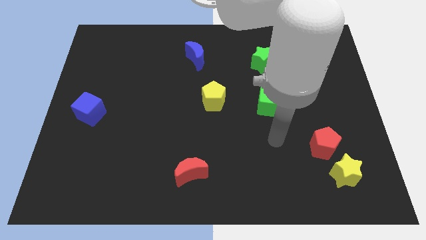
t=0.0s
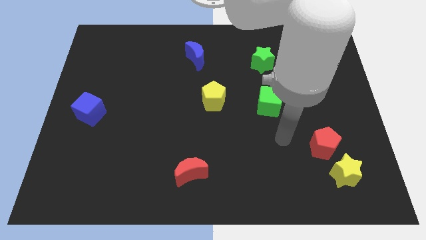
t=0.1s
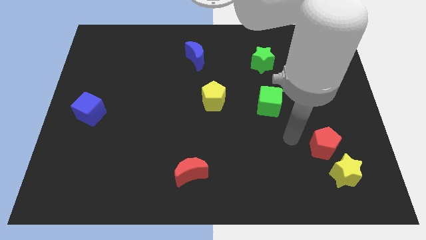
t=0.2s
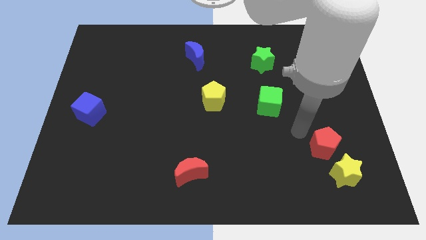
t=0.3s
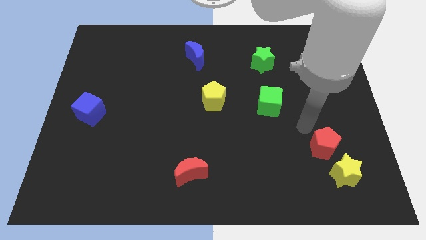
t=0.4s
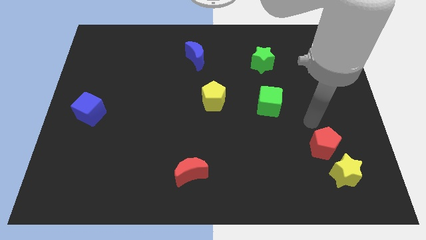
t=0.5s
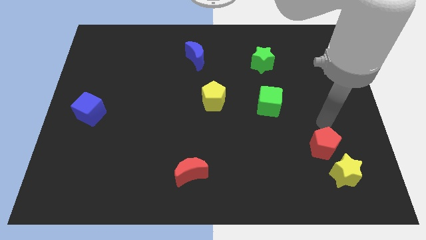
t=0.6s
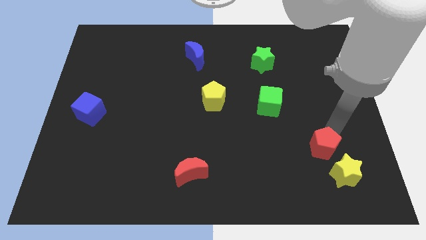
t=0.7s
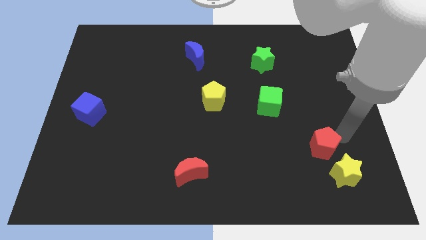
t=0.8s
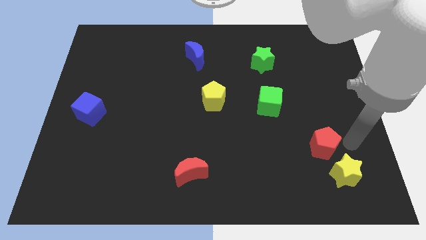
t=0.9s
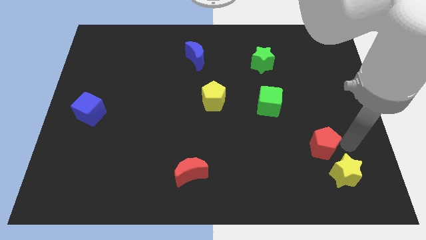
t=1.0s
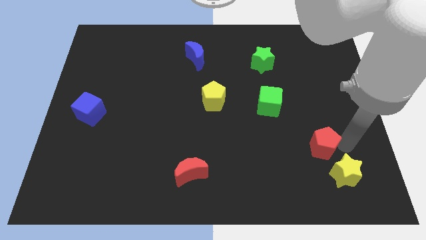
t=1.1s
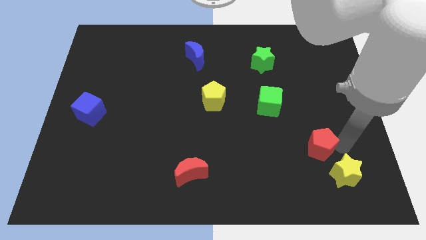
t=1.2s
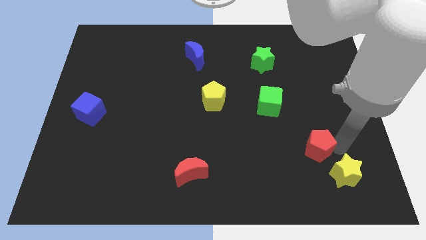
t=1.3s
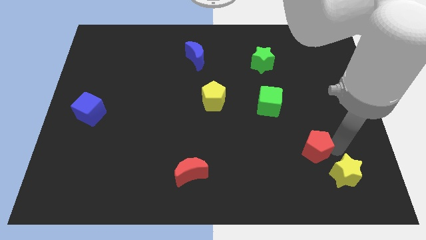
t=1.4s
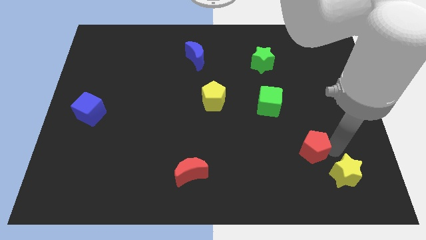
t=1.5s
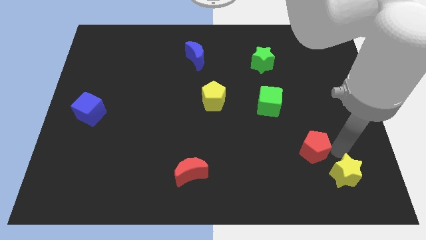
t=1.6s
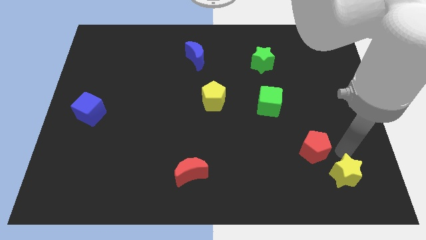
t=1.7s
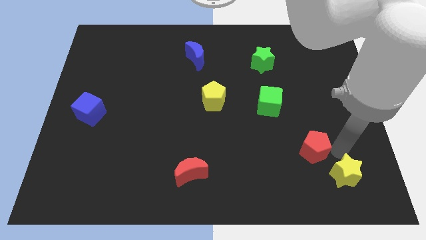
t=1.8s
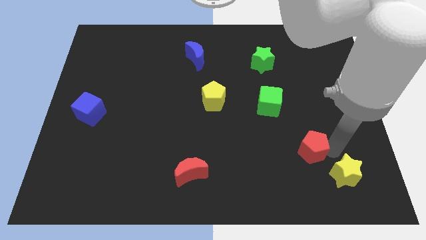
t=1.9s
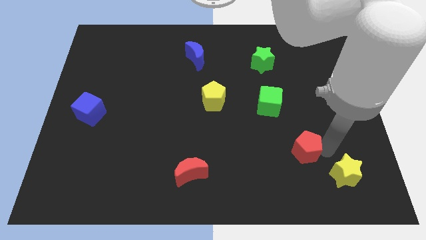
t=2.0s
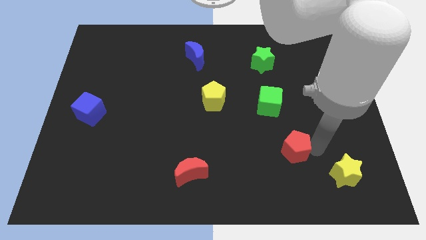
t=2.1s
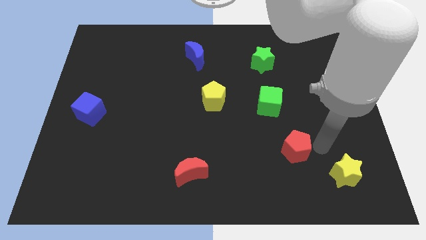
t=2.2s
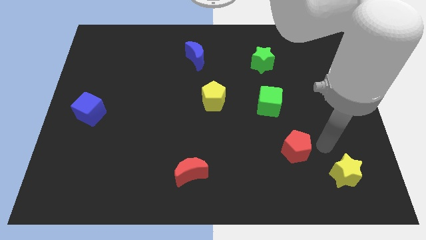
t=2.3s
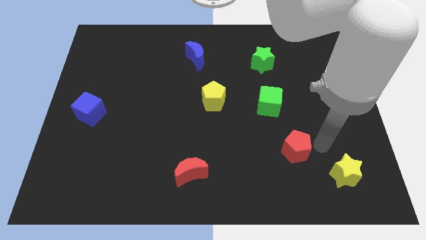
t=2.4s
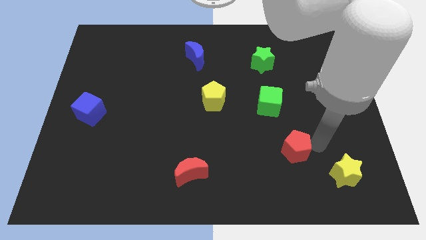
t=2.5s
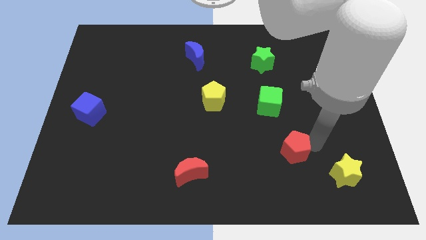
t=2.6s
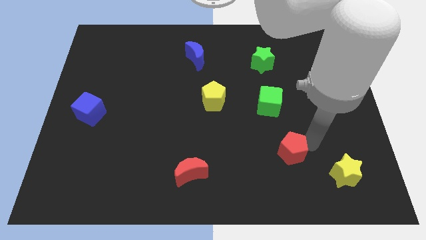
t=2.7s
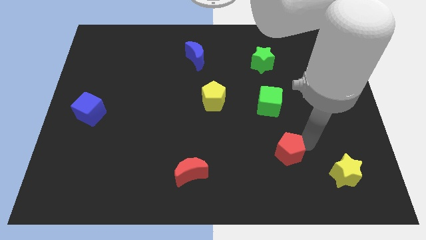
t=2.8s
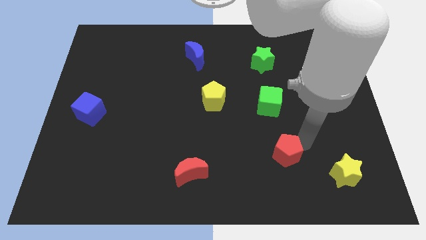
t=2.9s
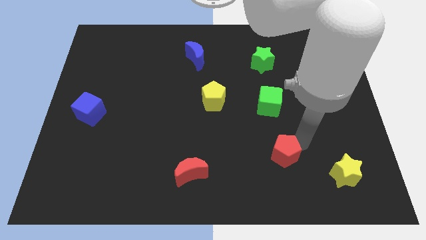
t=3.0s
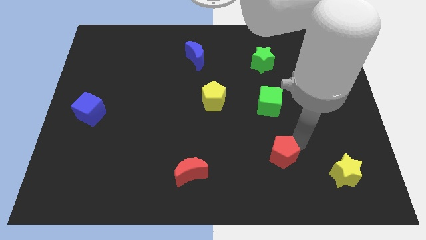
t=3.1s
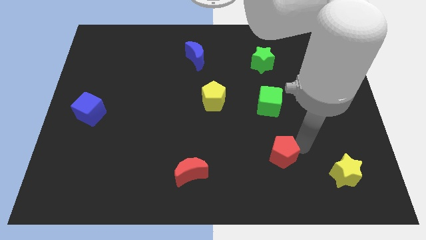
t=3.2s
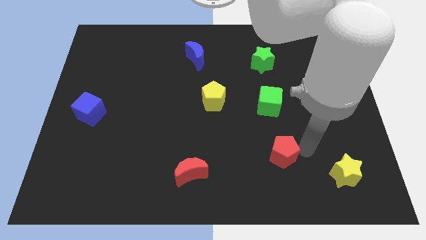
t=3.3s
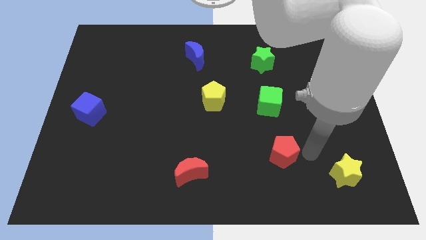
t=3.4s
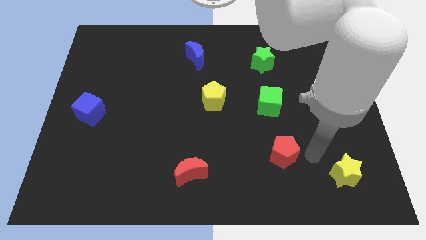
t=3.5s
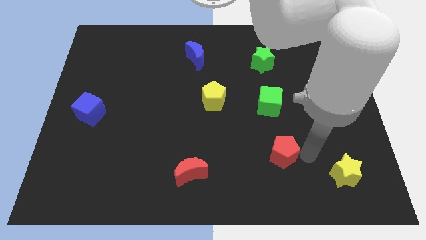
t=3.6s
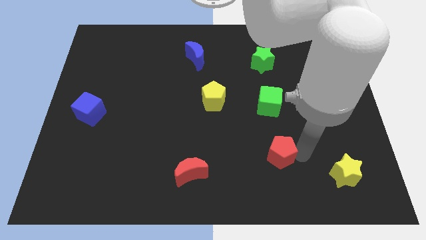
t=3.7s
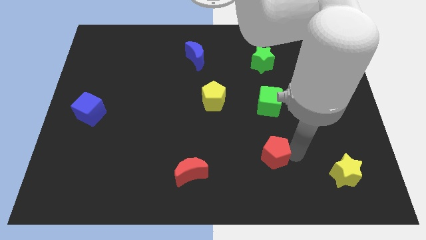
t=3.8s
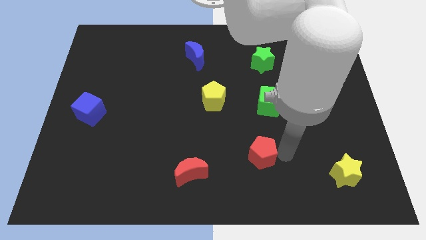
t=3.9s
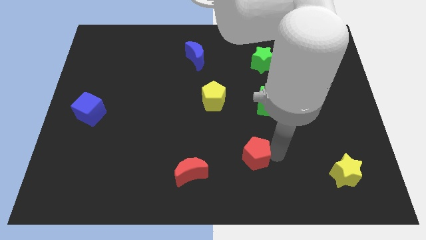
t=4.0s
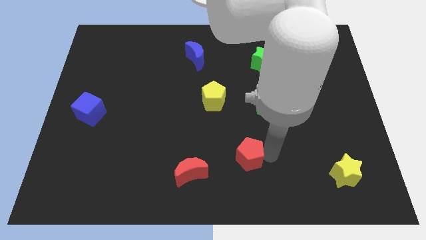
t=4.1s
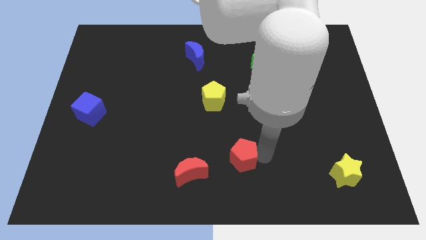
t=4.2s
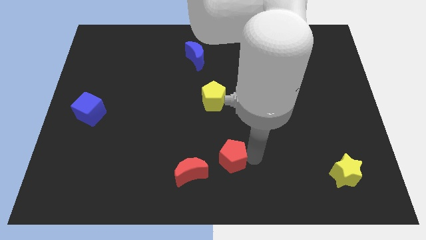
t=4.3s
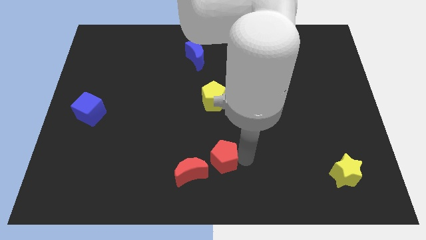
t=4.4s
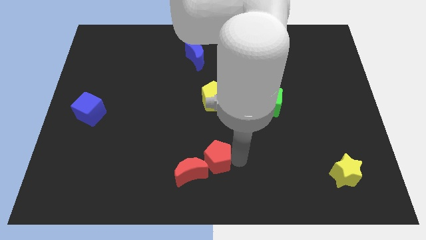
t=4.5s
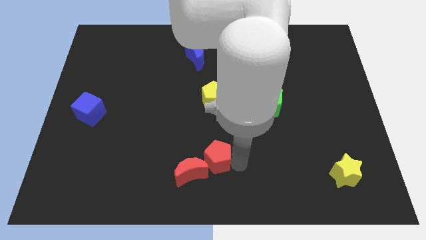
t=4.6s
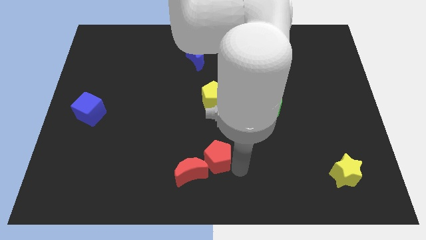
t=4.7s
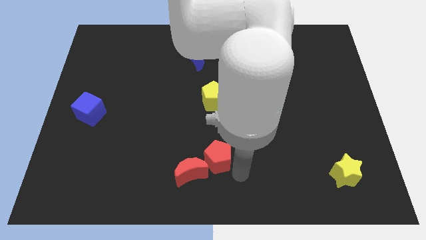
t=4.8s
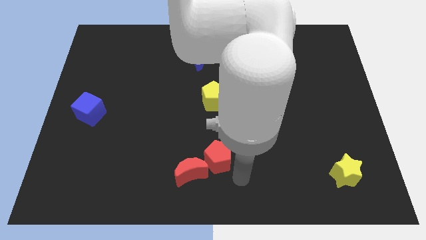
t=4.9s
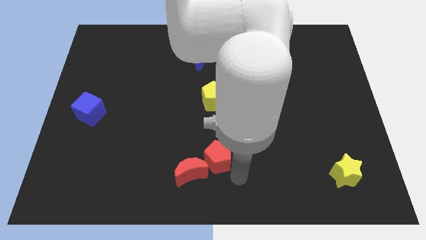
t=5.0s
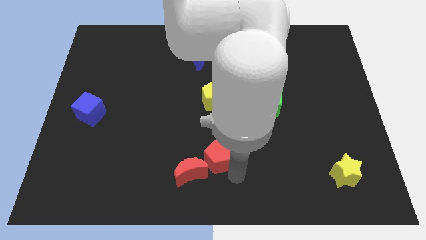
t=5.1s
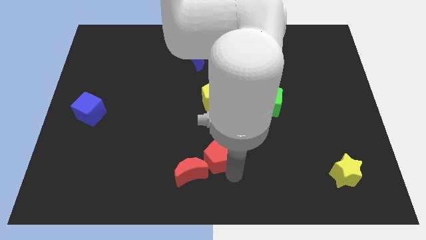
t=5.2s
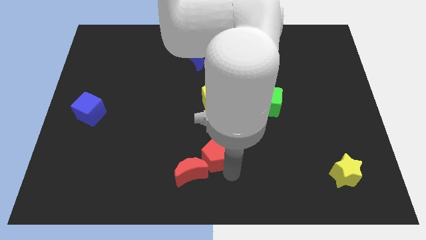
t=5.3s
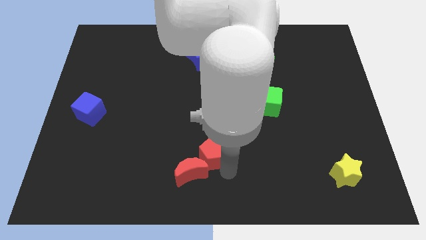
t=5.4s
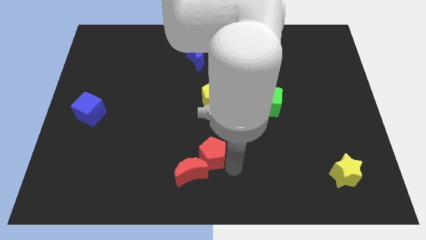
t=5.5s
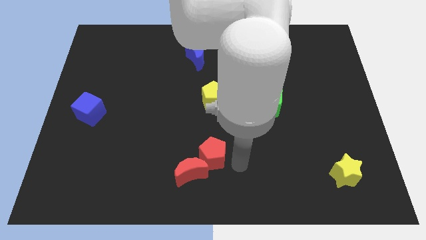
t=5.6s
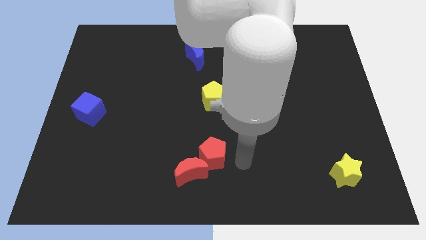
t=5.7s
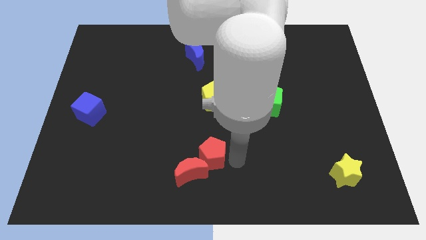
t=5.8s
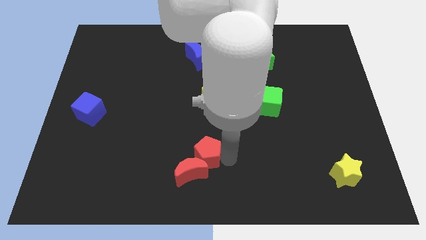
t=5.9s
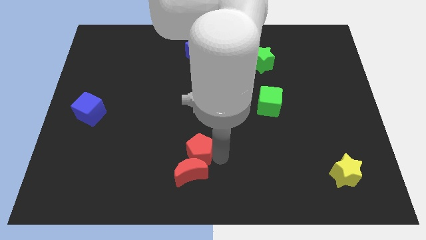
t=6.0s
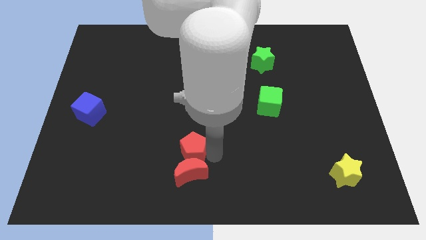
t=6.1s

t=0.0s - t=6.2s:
put the red pentagon to the top left side of the red moon

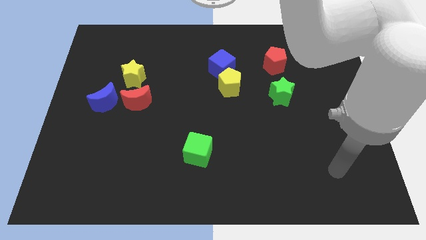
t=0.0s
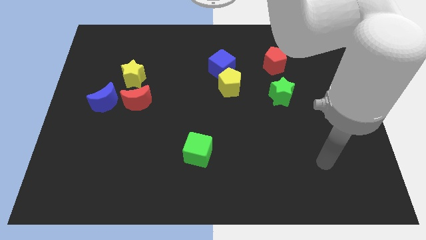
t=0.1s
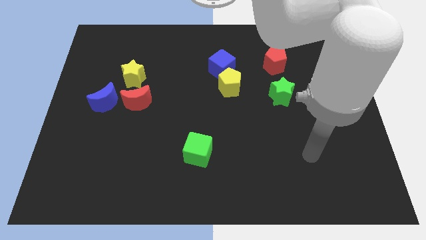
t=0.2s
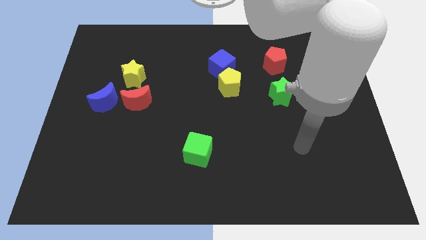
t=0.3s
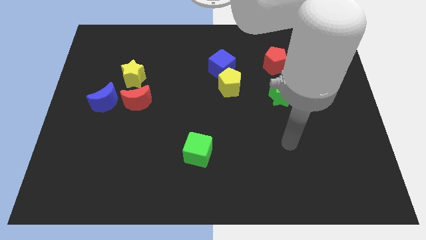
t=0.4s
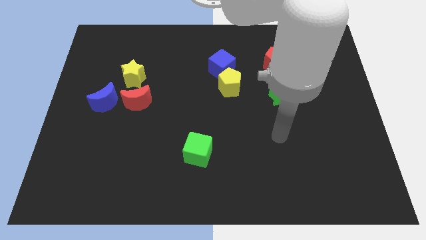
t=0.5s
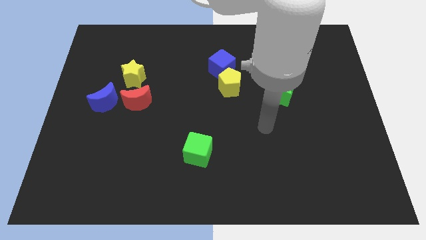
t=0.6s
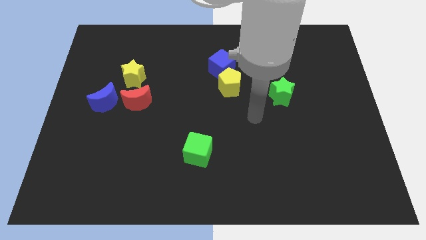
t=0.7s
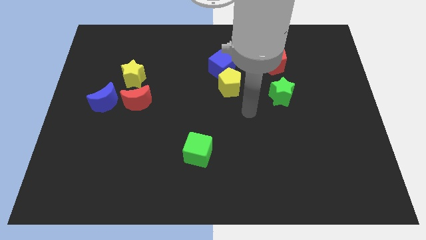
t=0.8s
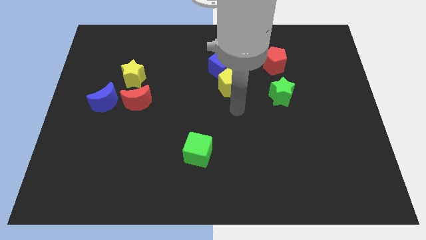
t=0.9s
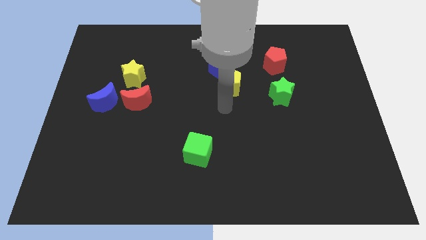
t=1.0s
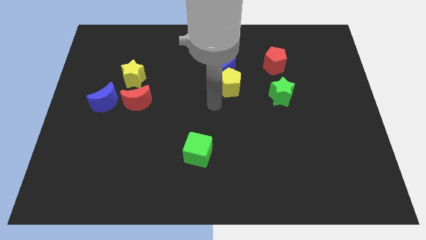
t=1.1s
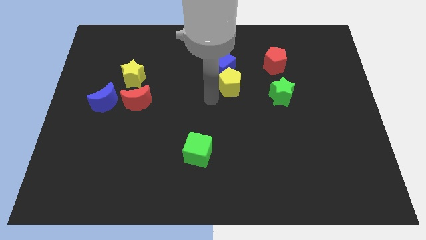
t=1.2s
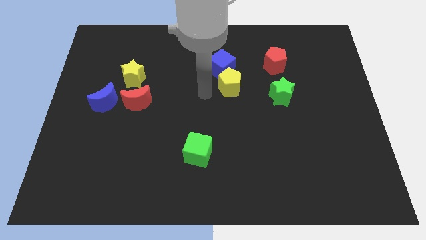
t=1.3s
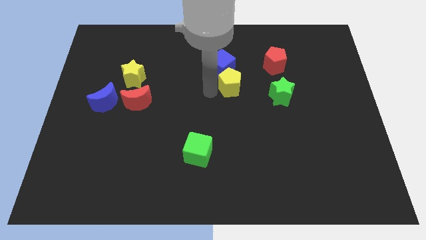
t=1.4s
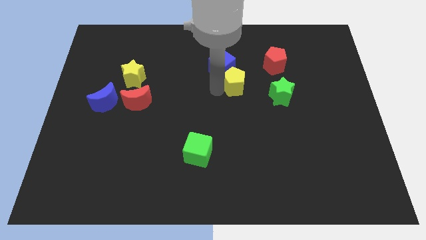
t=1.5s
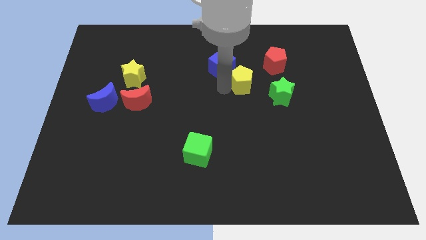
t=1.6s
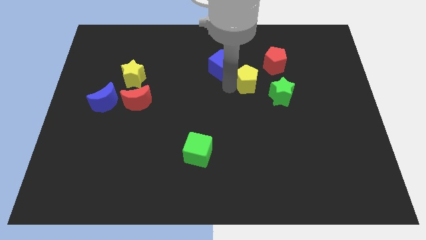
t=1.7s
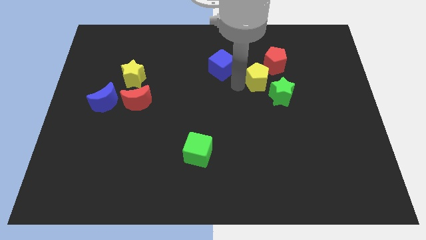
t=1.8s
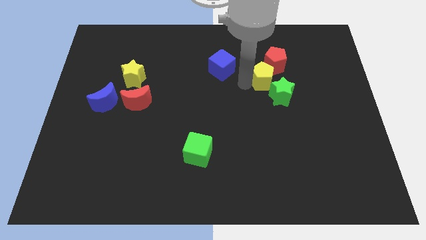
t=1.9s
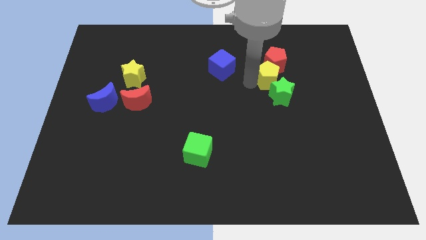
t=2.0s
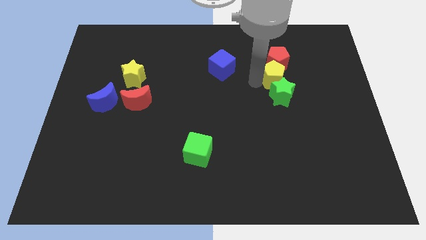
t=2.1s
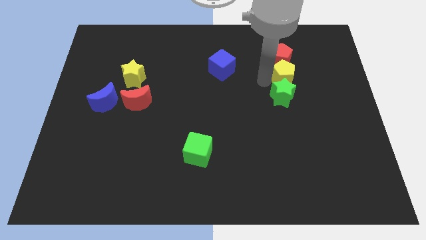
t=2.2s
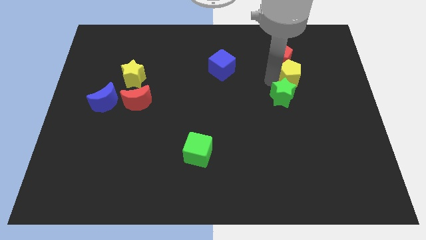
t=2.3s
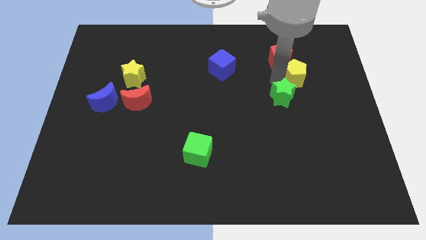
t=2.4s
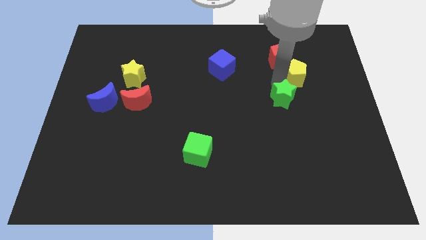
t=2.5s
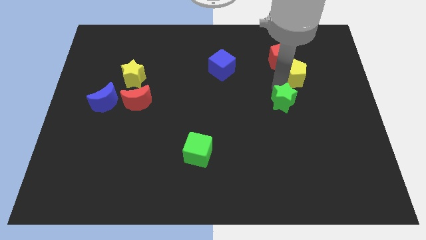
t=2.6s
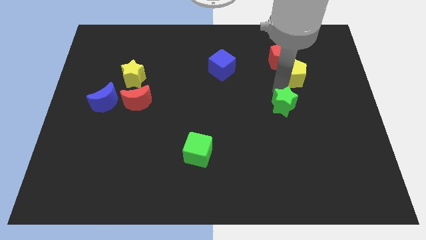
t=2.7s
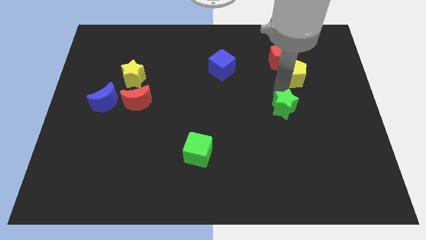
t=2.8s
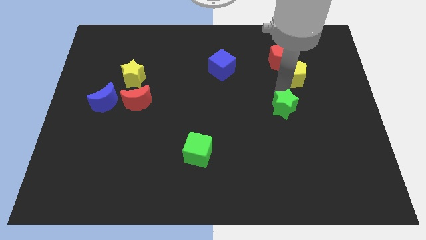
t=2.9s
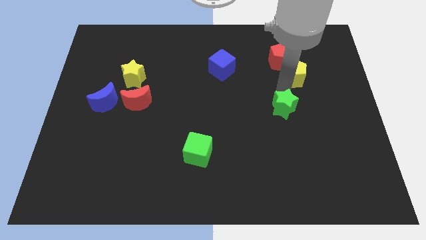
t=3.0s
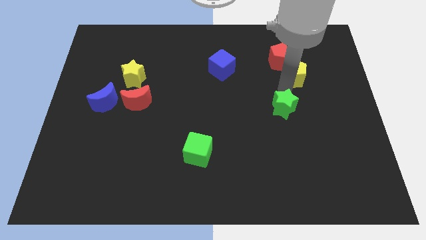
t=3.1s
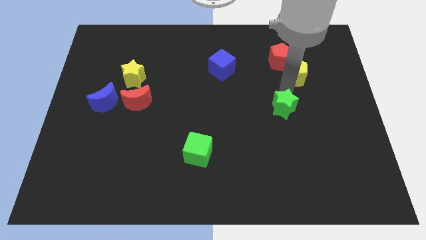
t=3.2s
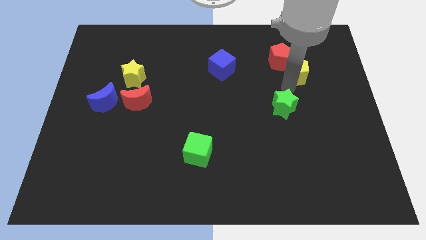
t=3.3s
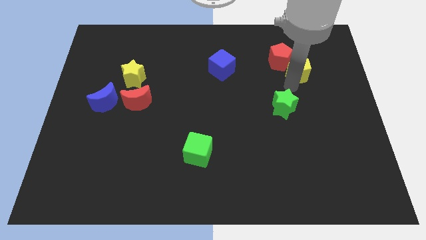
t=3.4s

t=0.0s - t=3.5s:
move the yellow pentagon just right of the red pentagon
